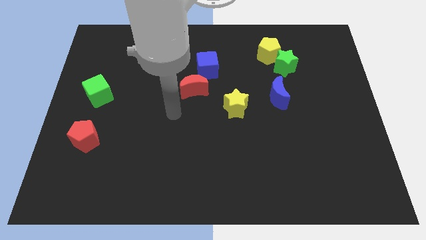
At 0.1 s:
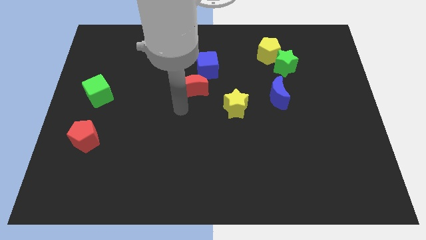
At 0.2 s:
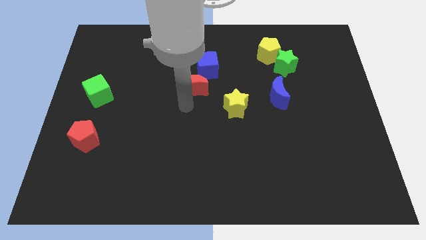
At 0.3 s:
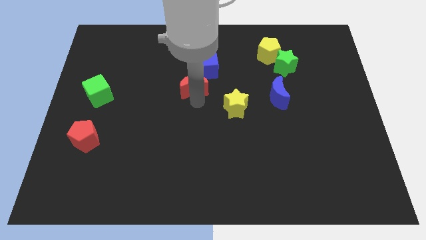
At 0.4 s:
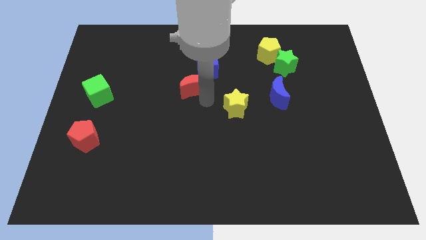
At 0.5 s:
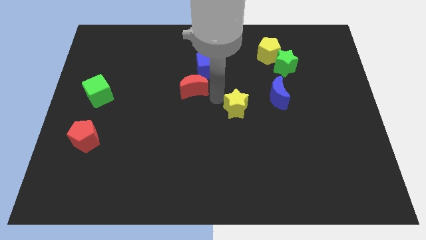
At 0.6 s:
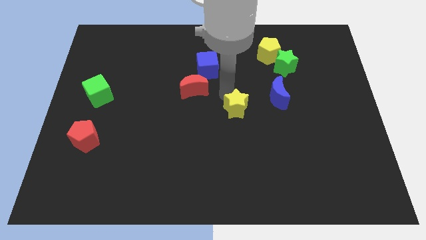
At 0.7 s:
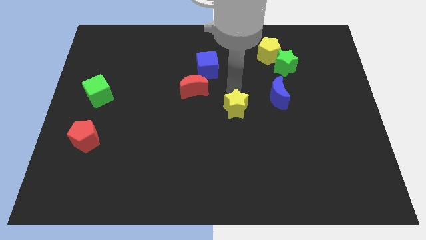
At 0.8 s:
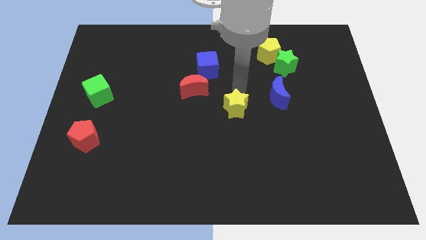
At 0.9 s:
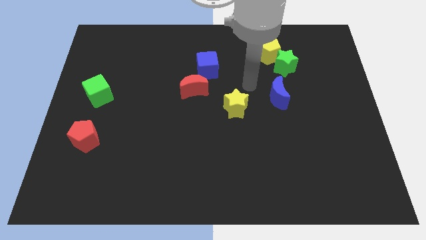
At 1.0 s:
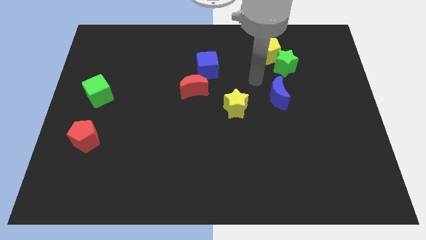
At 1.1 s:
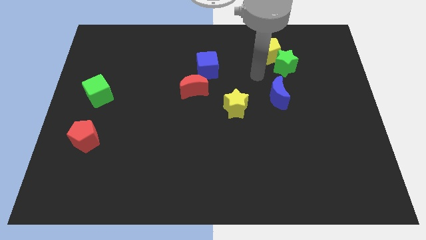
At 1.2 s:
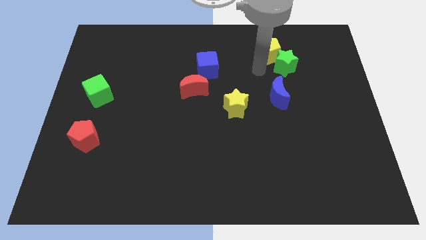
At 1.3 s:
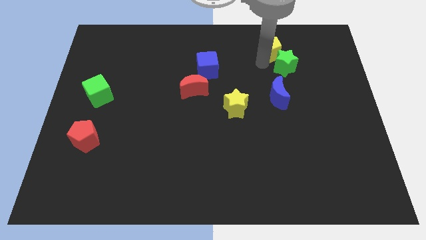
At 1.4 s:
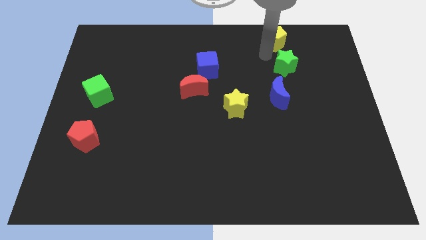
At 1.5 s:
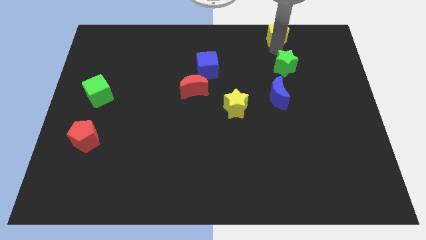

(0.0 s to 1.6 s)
pull the green star apart from the yellow pentagon

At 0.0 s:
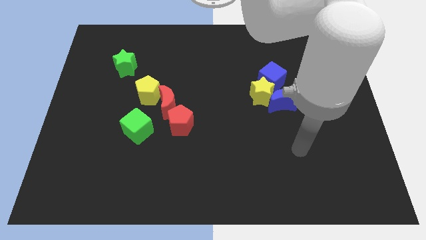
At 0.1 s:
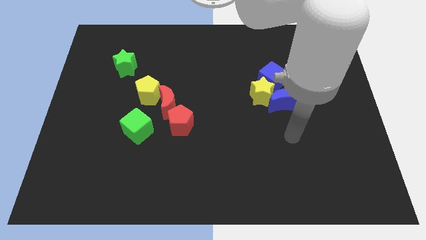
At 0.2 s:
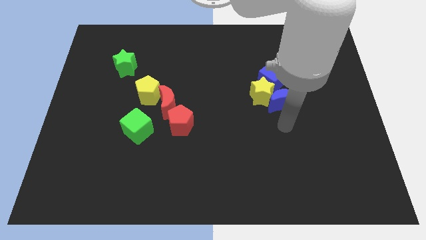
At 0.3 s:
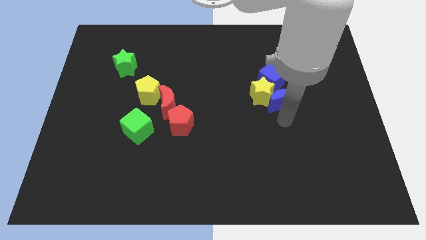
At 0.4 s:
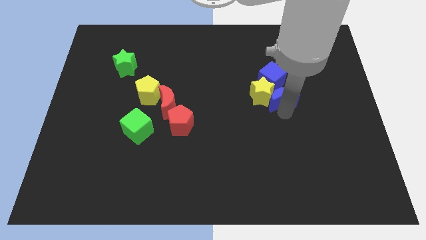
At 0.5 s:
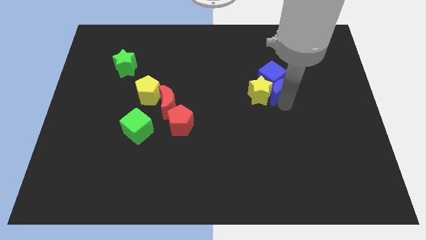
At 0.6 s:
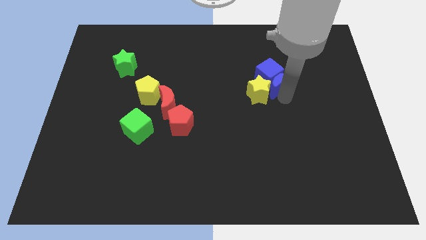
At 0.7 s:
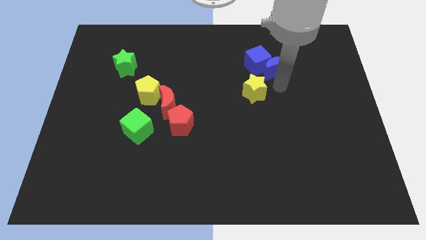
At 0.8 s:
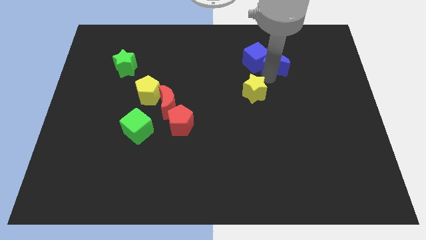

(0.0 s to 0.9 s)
pull the yellow star apart from the blue moon and blue cube

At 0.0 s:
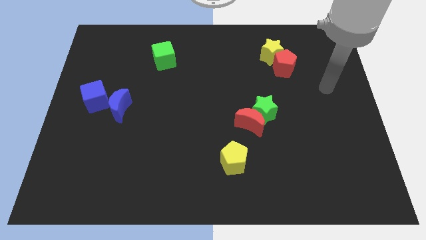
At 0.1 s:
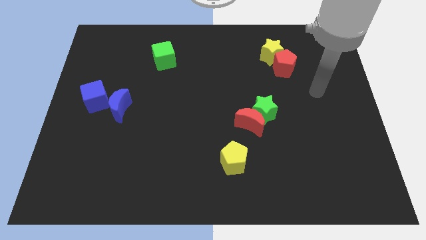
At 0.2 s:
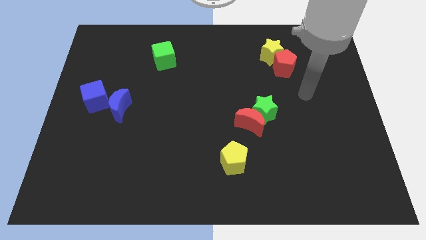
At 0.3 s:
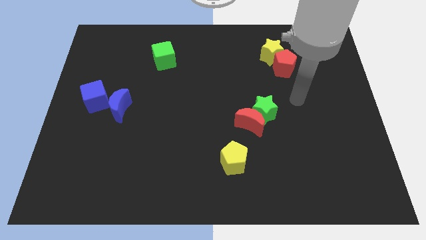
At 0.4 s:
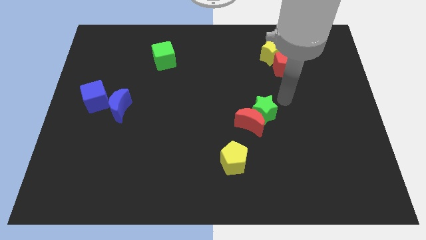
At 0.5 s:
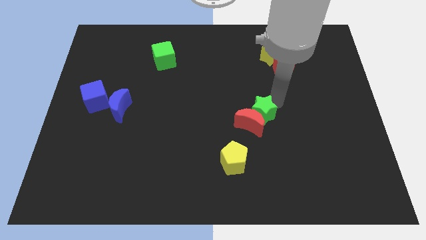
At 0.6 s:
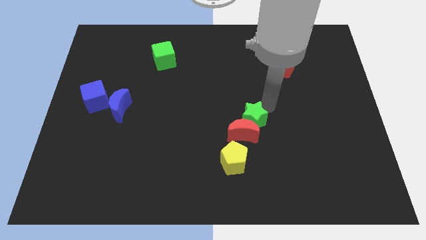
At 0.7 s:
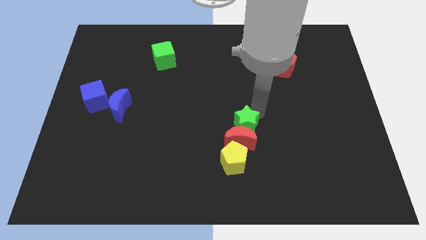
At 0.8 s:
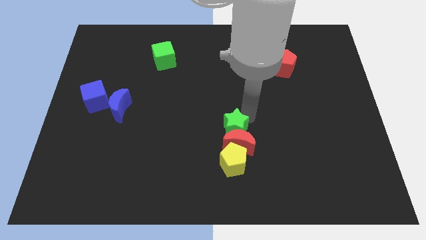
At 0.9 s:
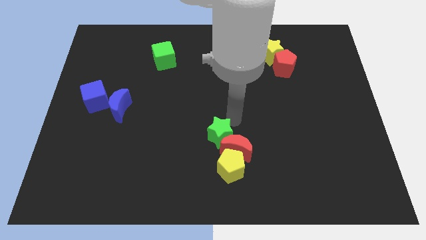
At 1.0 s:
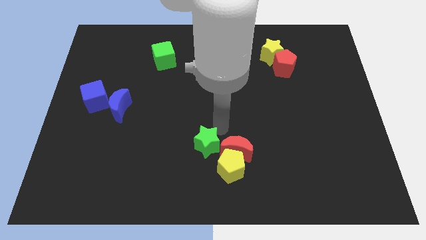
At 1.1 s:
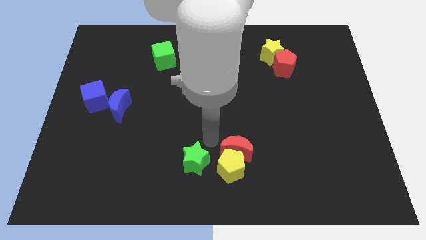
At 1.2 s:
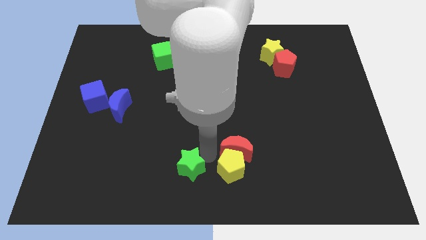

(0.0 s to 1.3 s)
pull the red moon apart from the green star

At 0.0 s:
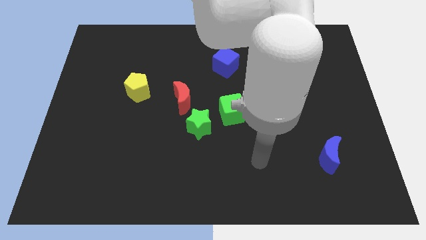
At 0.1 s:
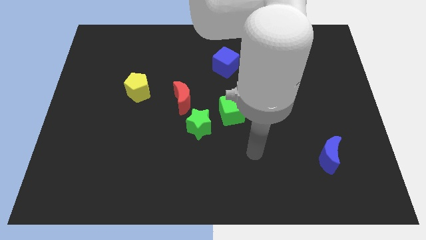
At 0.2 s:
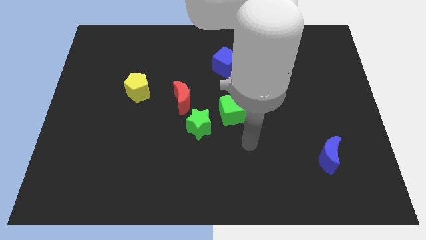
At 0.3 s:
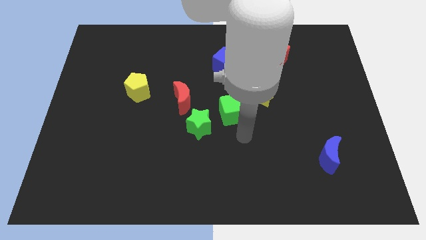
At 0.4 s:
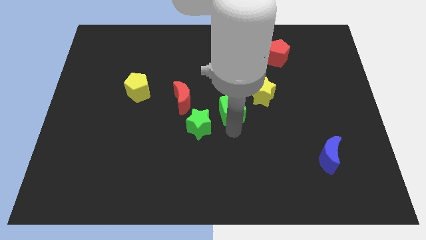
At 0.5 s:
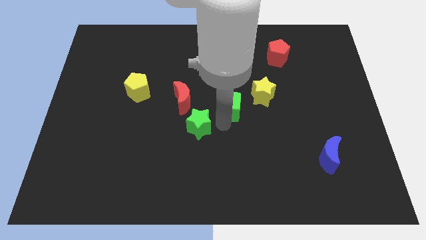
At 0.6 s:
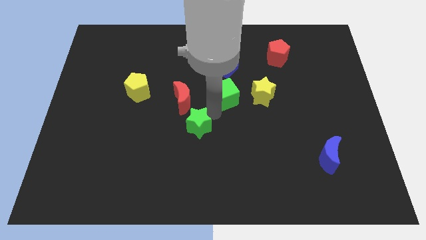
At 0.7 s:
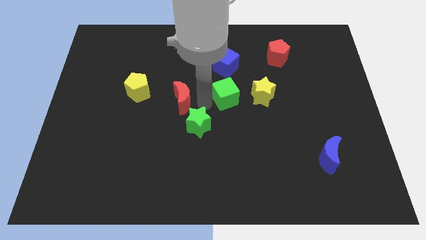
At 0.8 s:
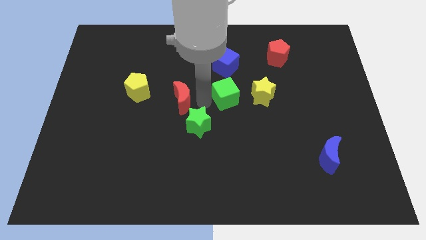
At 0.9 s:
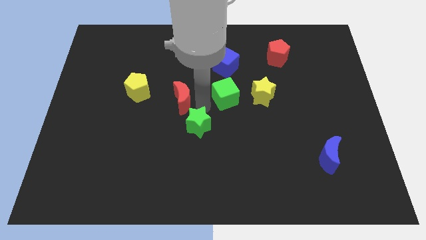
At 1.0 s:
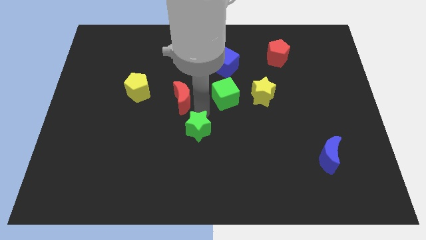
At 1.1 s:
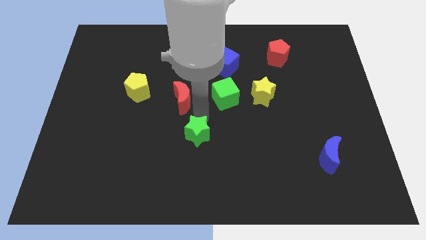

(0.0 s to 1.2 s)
move the green star away from the green cube and red moon

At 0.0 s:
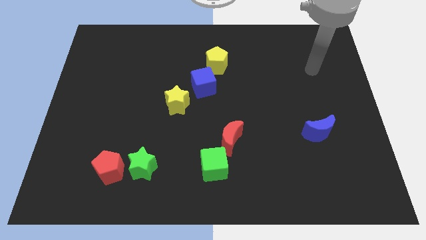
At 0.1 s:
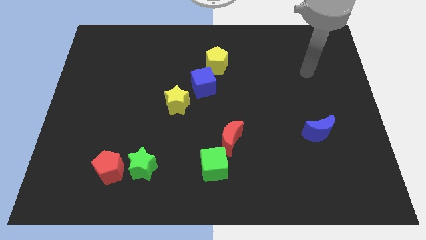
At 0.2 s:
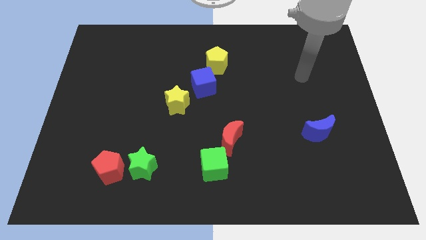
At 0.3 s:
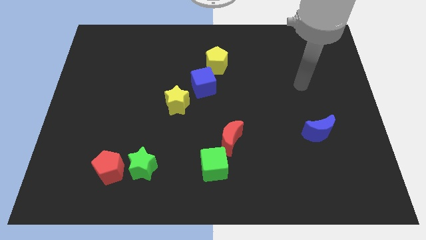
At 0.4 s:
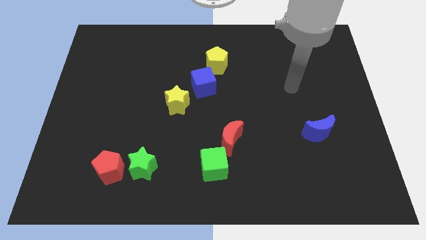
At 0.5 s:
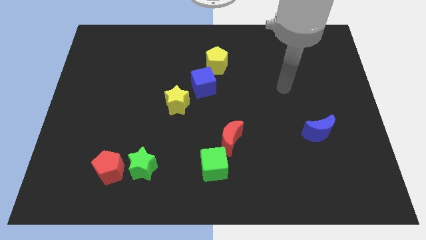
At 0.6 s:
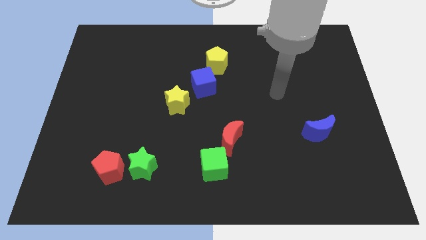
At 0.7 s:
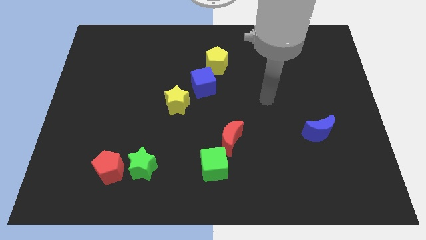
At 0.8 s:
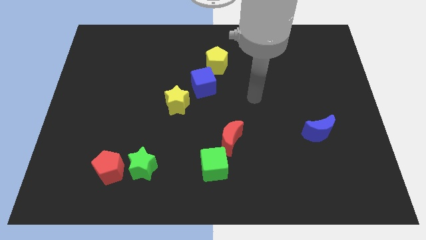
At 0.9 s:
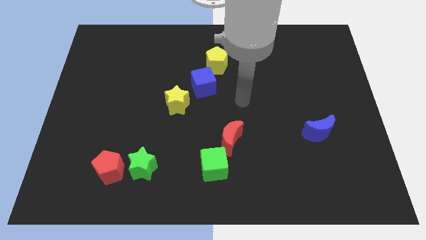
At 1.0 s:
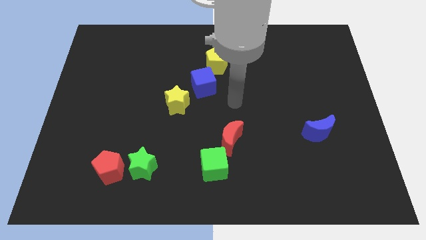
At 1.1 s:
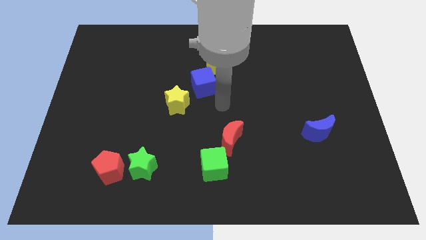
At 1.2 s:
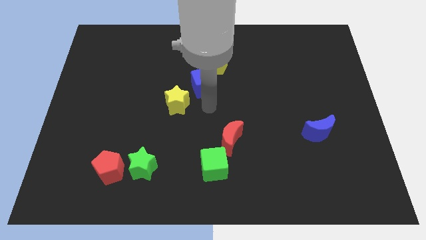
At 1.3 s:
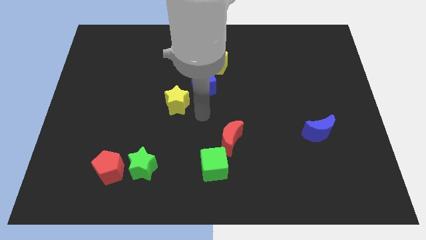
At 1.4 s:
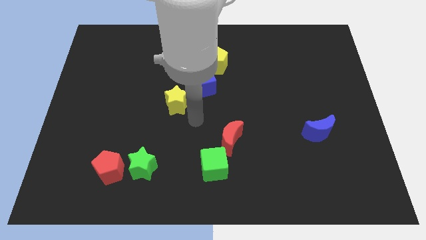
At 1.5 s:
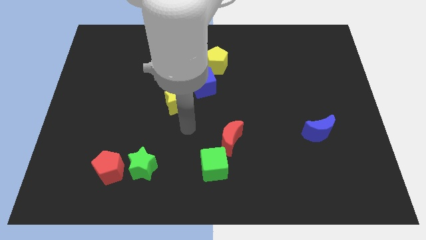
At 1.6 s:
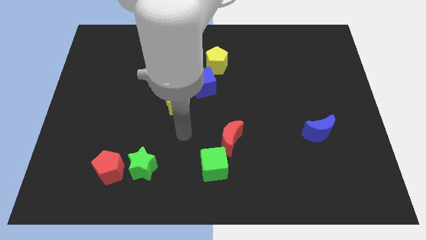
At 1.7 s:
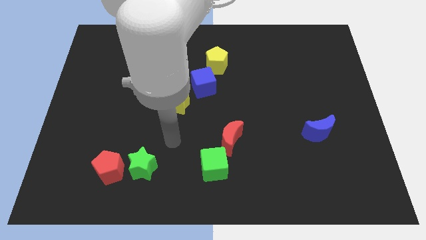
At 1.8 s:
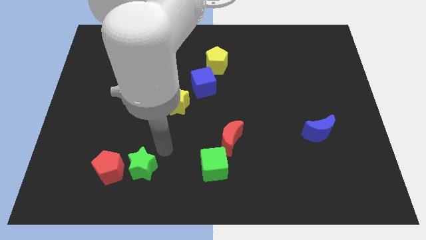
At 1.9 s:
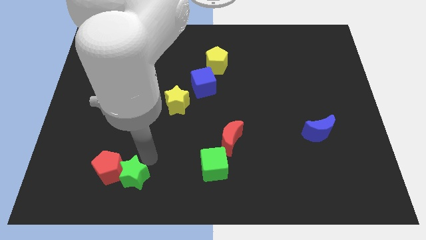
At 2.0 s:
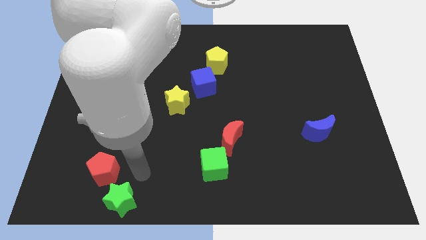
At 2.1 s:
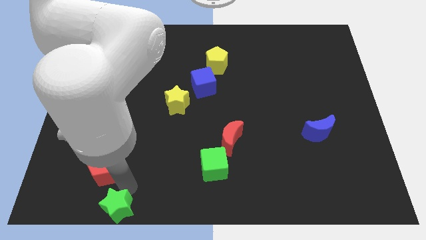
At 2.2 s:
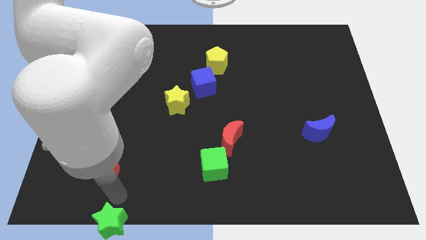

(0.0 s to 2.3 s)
pull the red pentagon apart from the green star

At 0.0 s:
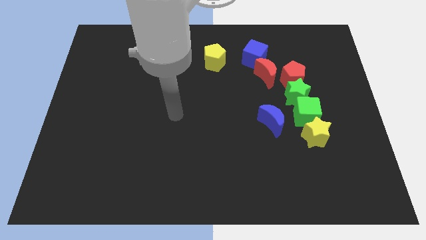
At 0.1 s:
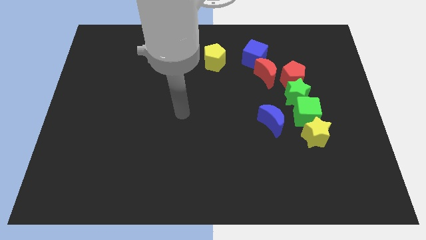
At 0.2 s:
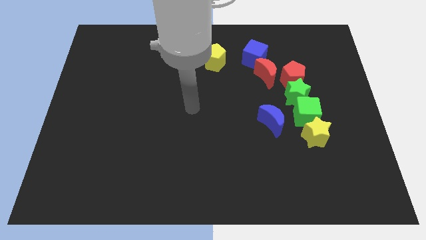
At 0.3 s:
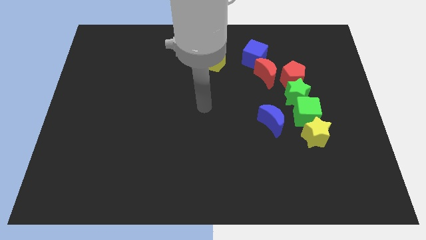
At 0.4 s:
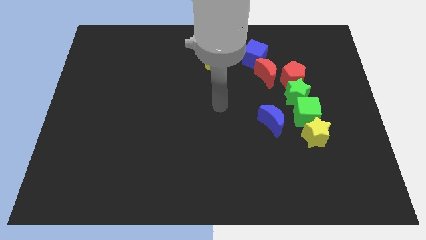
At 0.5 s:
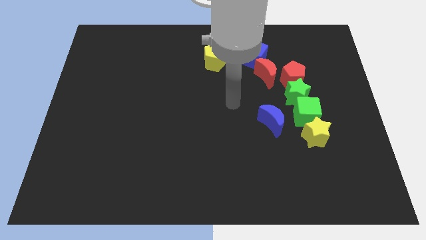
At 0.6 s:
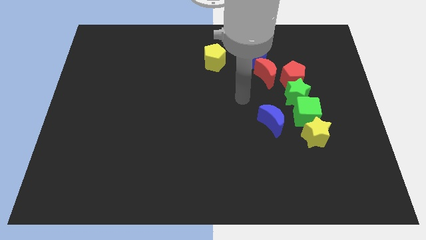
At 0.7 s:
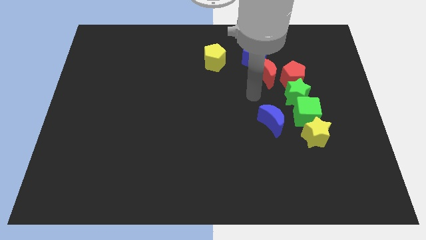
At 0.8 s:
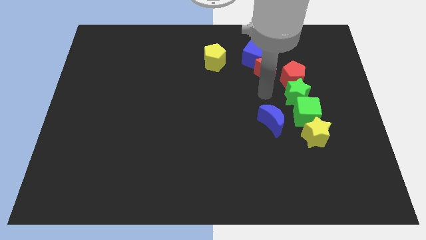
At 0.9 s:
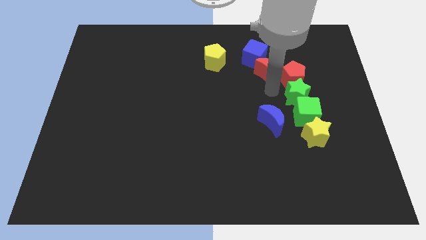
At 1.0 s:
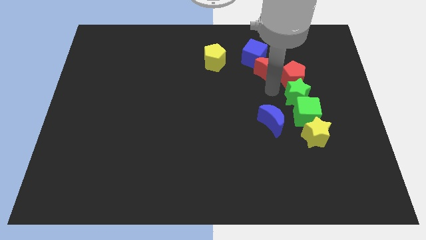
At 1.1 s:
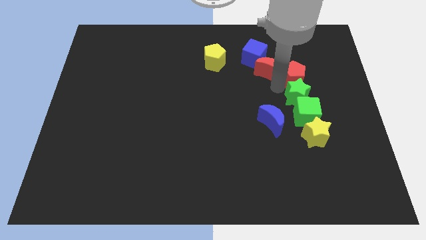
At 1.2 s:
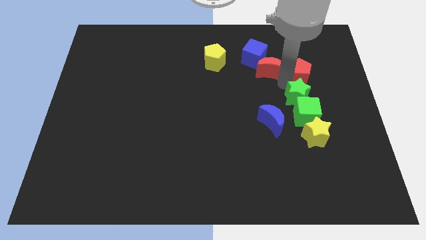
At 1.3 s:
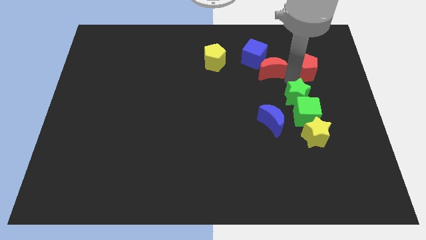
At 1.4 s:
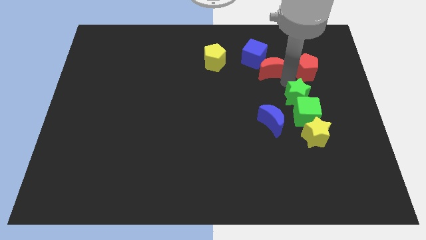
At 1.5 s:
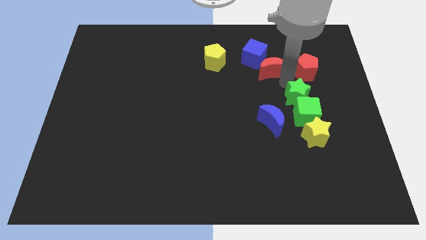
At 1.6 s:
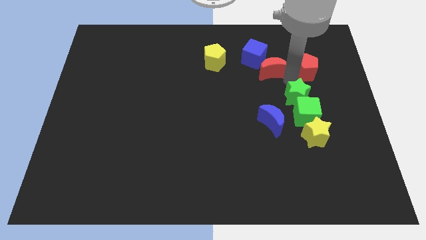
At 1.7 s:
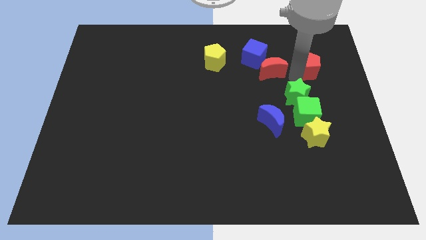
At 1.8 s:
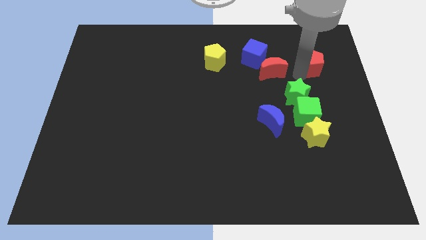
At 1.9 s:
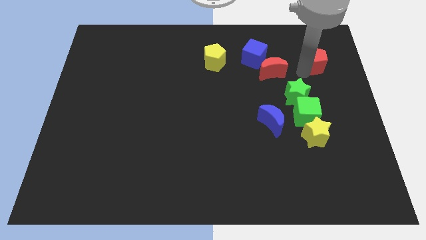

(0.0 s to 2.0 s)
pull the red pentagon apart from the green star and red moon
